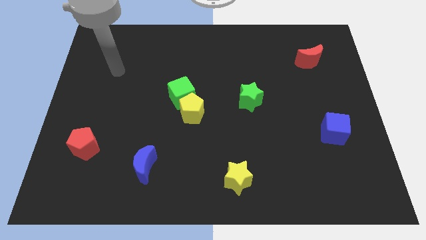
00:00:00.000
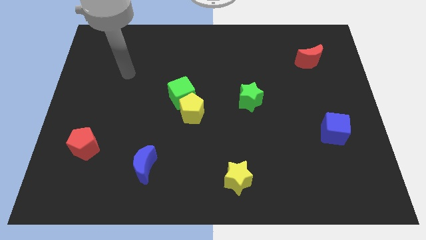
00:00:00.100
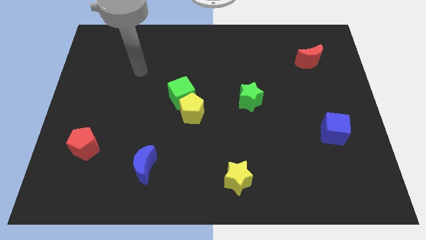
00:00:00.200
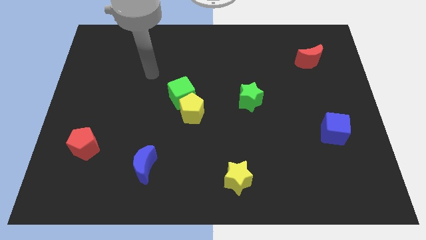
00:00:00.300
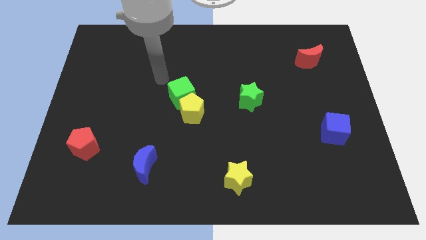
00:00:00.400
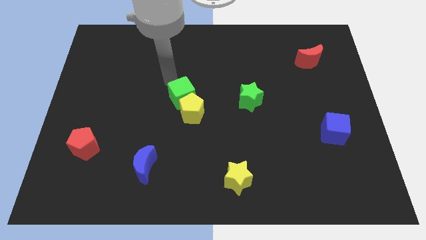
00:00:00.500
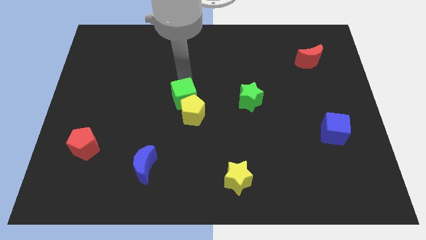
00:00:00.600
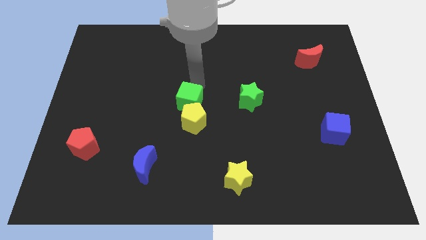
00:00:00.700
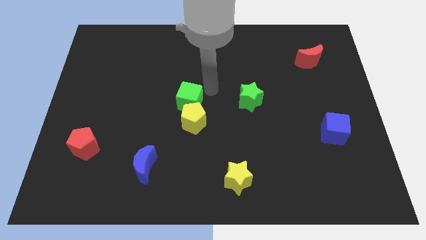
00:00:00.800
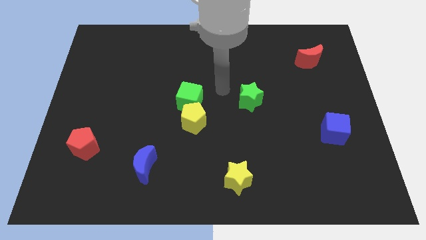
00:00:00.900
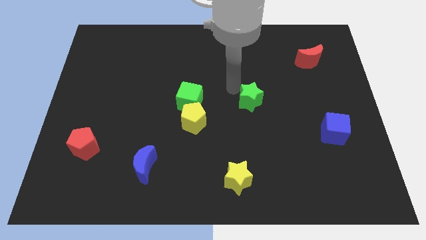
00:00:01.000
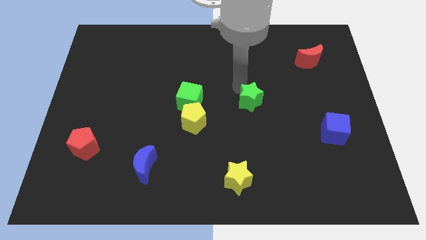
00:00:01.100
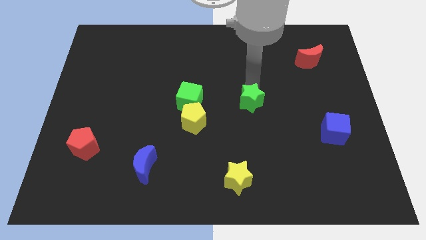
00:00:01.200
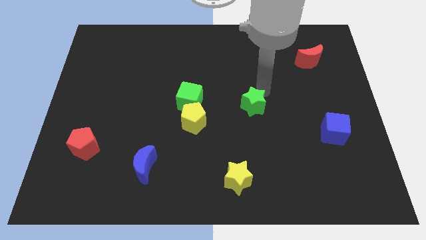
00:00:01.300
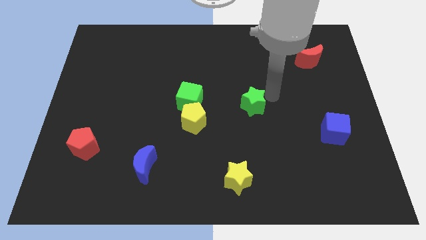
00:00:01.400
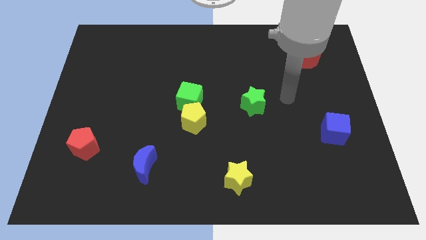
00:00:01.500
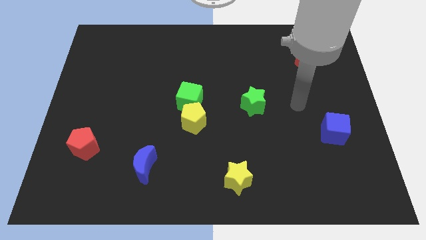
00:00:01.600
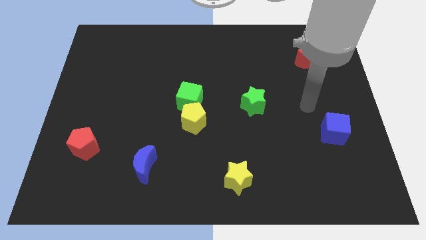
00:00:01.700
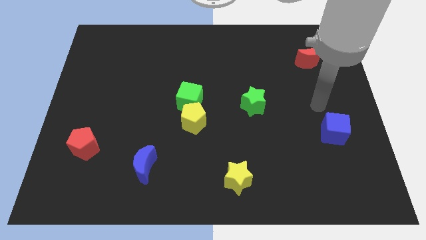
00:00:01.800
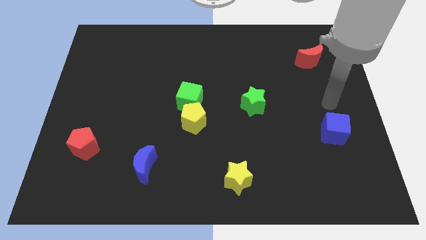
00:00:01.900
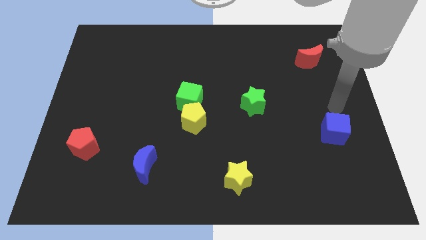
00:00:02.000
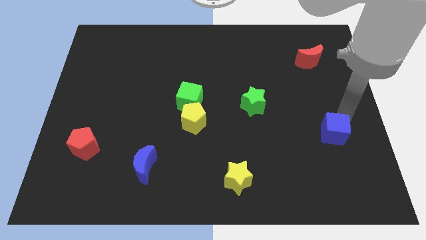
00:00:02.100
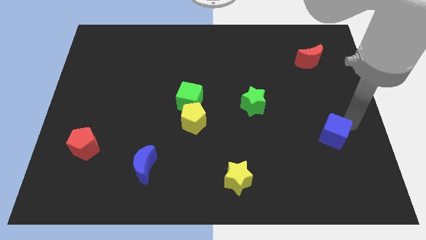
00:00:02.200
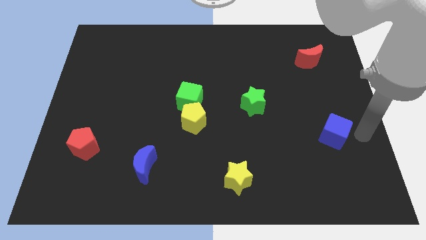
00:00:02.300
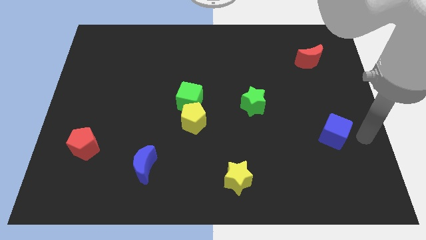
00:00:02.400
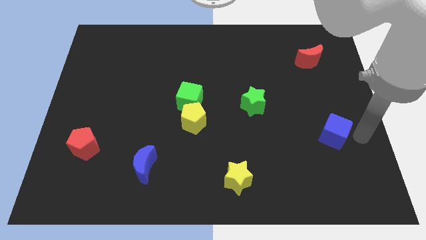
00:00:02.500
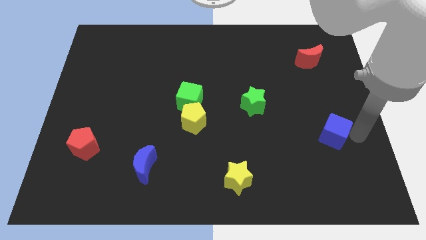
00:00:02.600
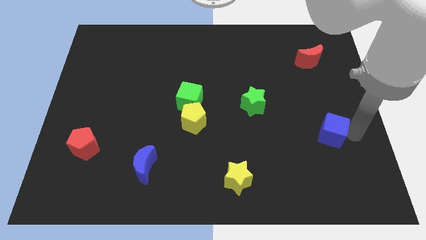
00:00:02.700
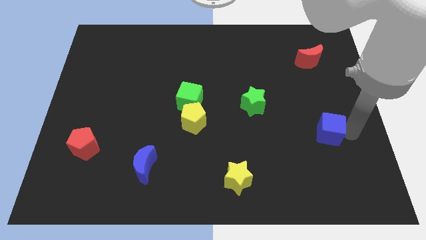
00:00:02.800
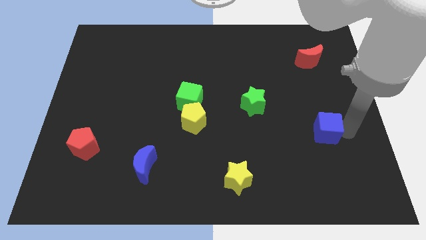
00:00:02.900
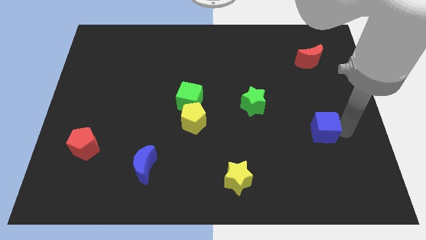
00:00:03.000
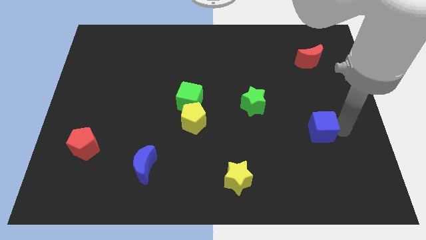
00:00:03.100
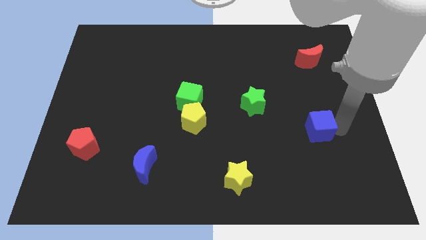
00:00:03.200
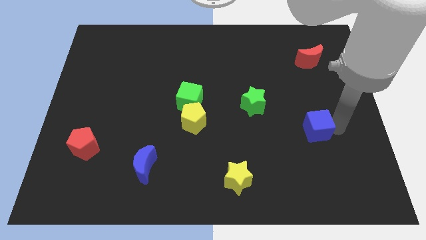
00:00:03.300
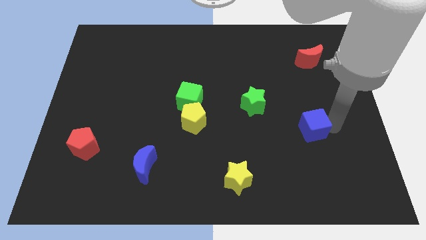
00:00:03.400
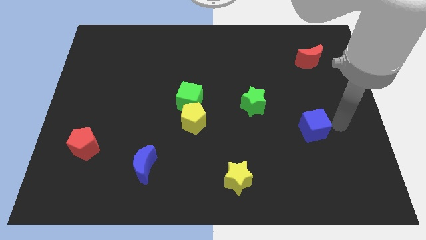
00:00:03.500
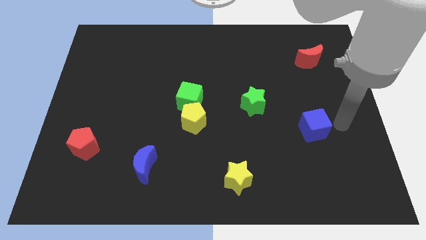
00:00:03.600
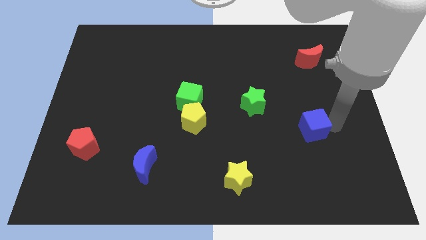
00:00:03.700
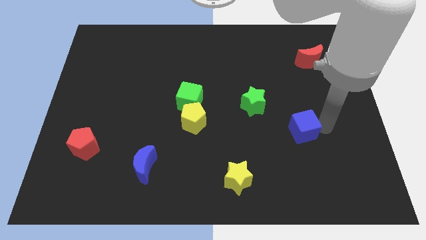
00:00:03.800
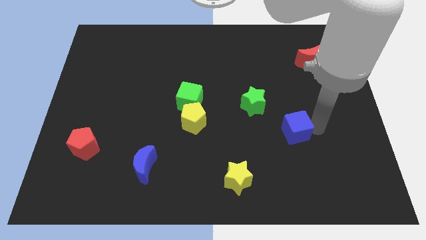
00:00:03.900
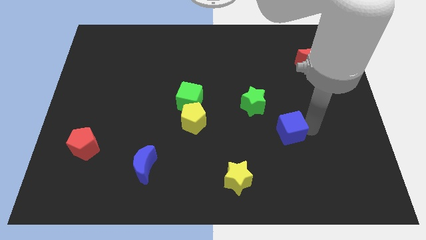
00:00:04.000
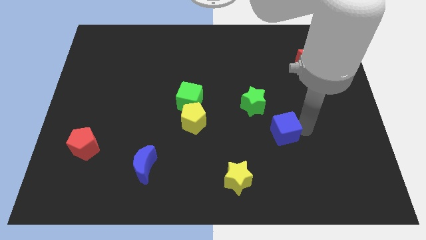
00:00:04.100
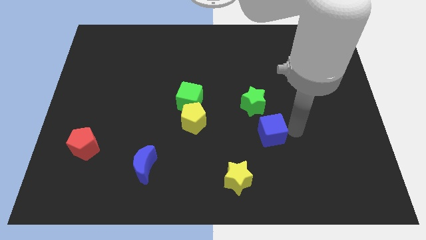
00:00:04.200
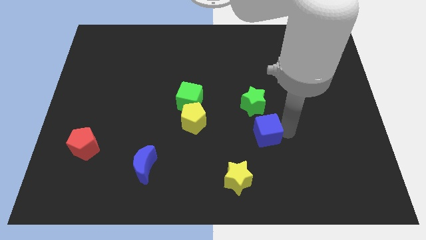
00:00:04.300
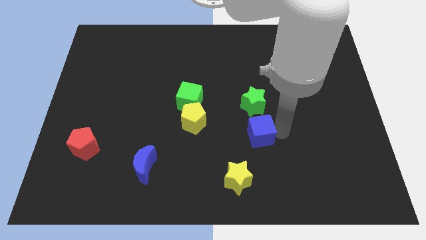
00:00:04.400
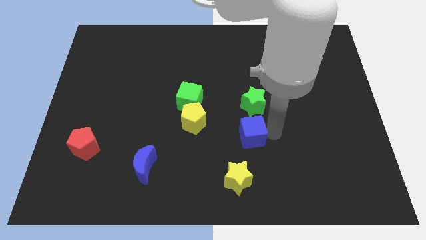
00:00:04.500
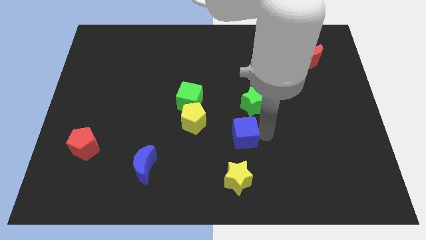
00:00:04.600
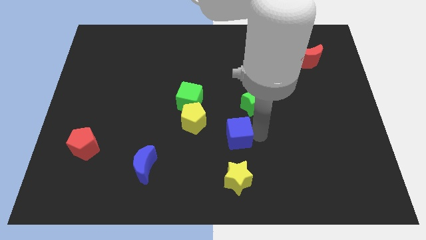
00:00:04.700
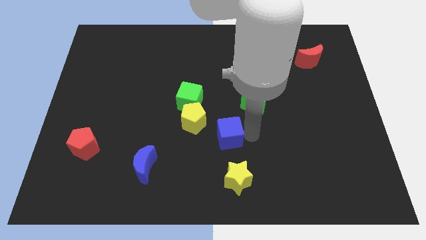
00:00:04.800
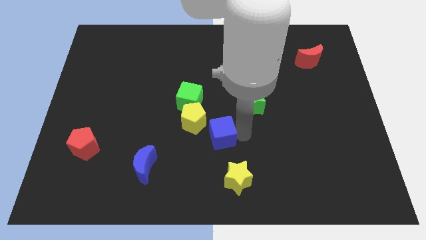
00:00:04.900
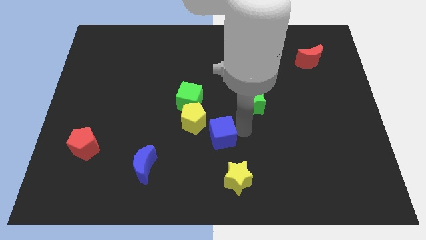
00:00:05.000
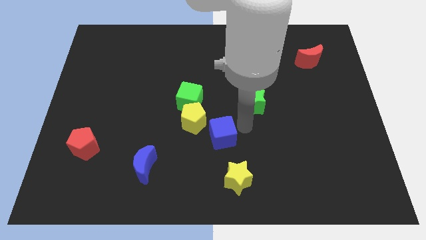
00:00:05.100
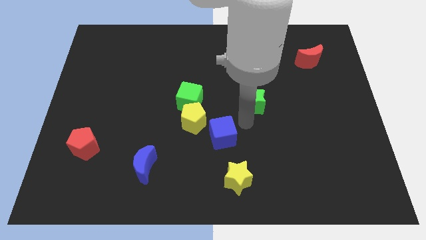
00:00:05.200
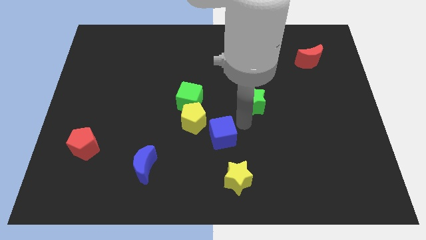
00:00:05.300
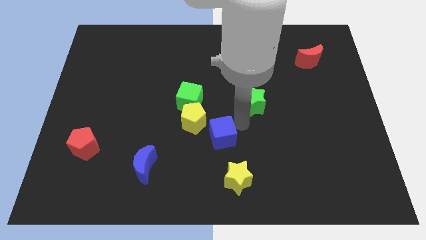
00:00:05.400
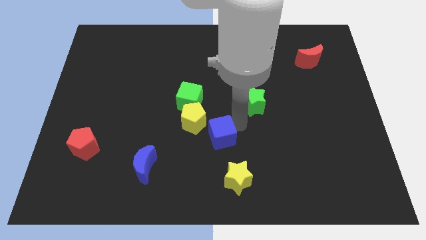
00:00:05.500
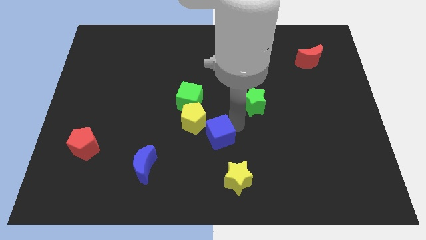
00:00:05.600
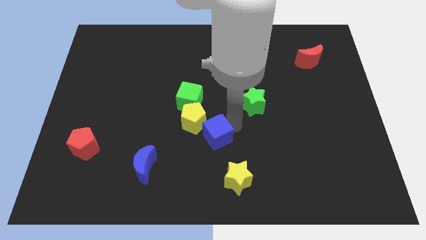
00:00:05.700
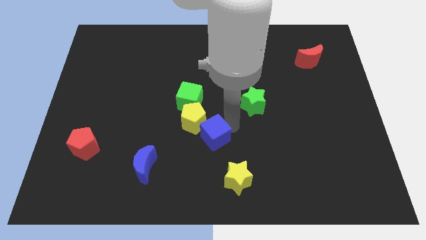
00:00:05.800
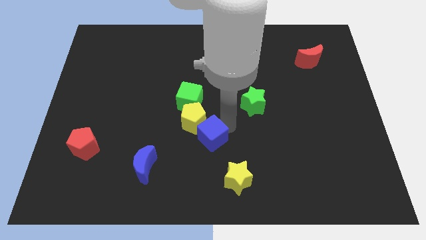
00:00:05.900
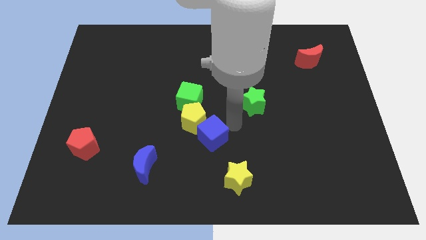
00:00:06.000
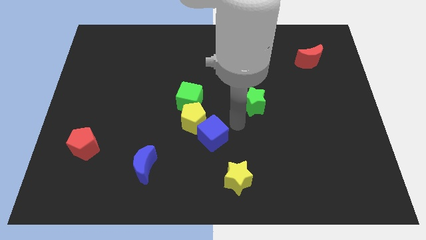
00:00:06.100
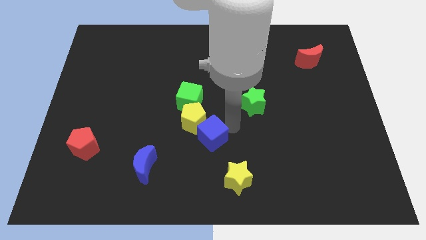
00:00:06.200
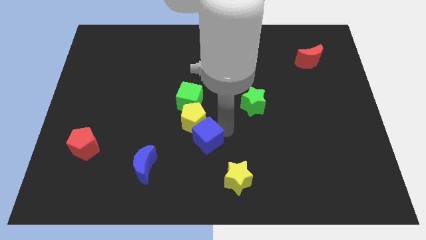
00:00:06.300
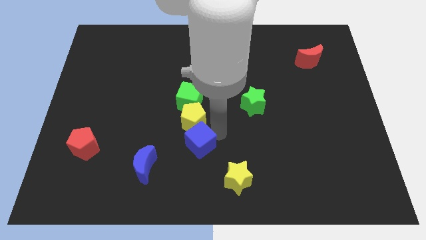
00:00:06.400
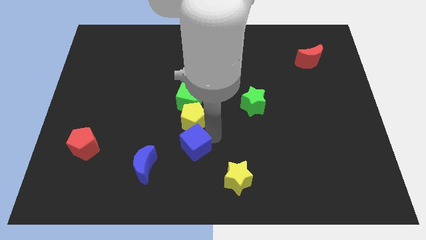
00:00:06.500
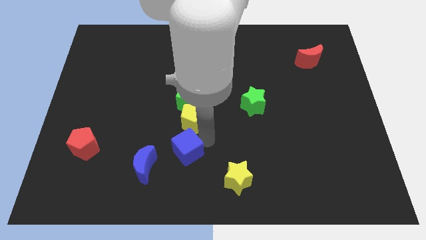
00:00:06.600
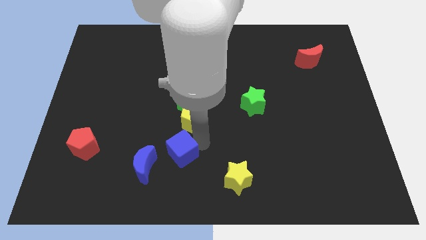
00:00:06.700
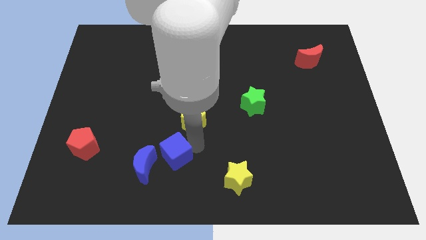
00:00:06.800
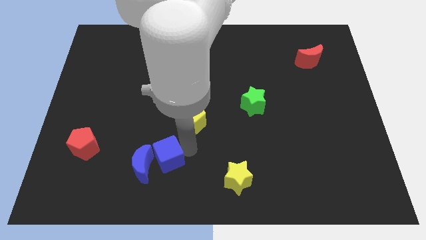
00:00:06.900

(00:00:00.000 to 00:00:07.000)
put the blue cube next to the blue moon
